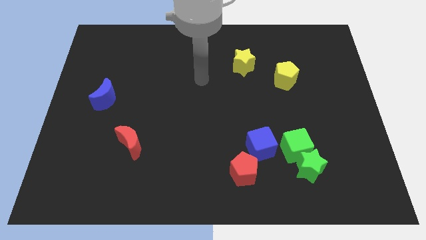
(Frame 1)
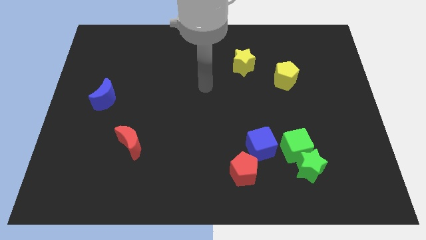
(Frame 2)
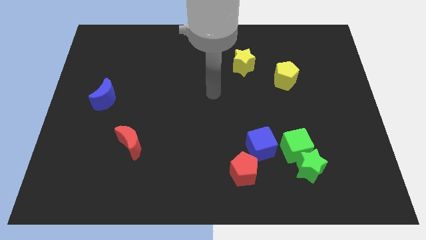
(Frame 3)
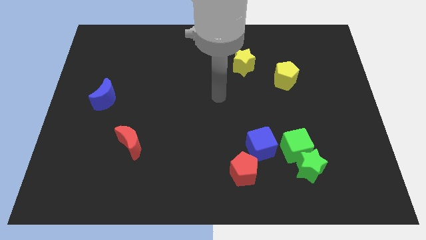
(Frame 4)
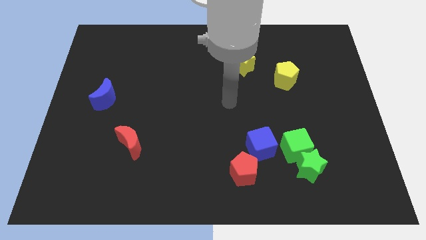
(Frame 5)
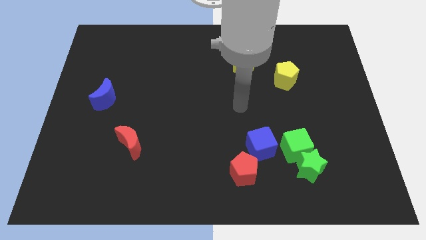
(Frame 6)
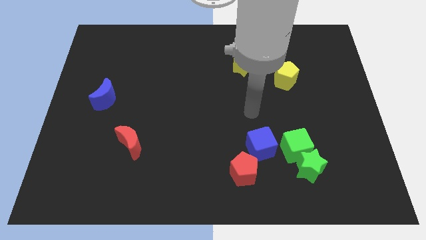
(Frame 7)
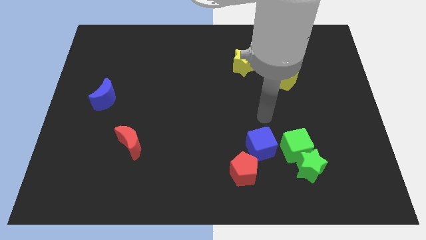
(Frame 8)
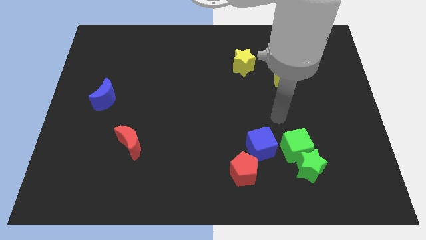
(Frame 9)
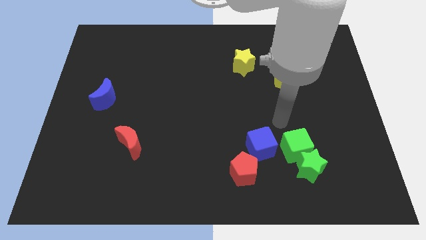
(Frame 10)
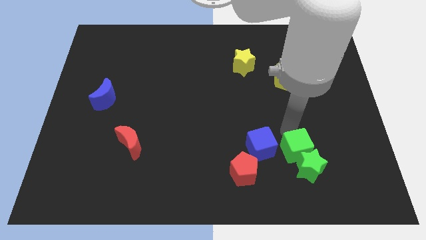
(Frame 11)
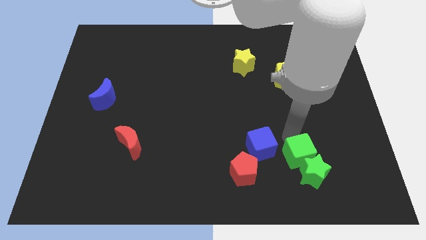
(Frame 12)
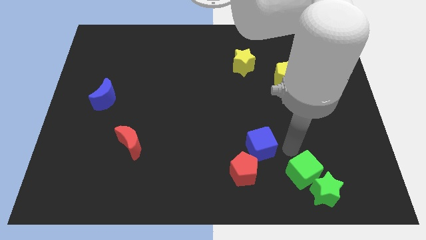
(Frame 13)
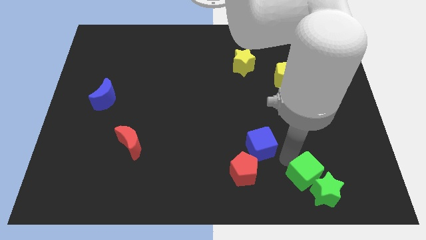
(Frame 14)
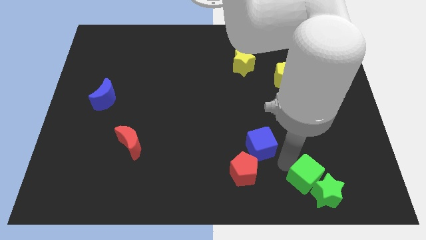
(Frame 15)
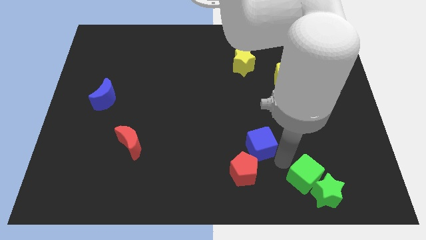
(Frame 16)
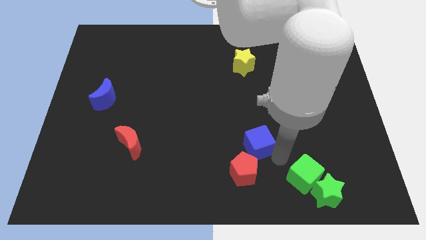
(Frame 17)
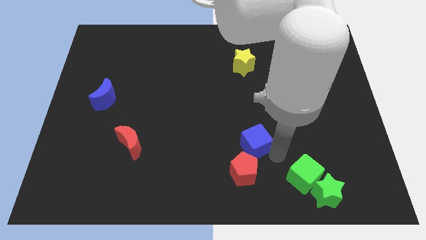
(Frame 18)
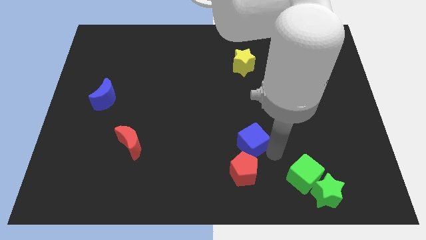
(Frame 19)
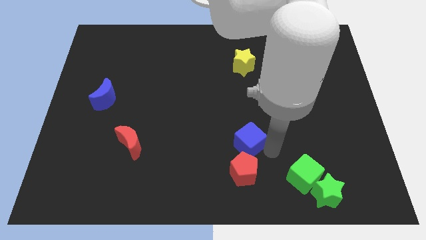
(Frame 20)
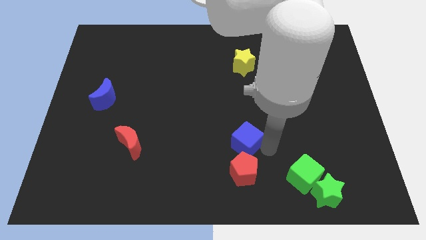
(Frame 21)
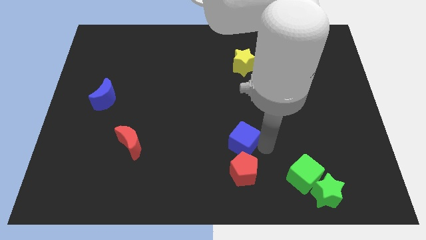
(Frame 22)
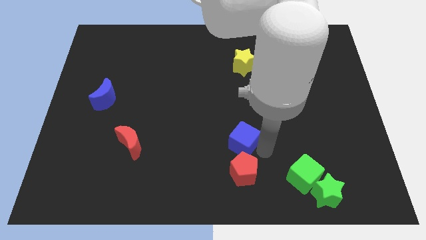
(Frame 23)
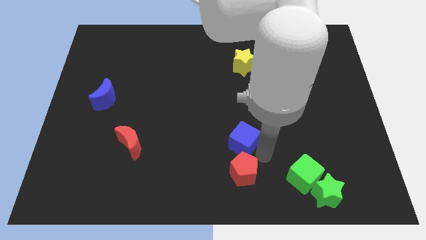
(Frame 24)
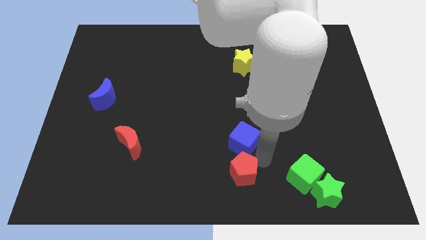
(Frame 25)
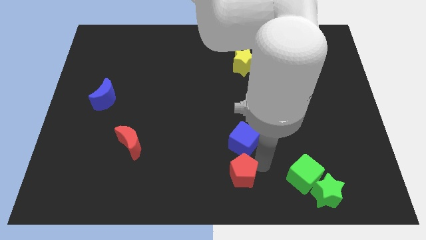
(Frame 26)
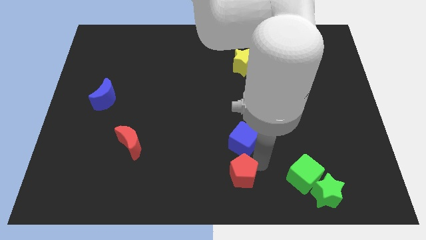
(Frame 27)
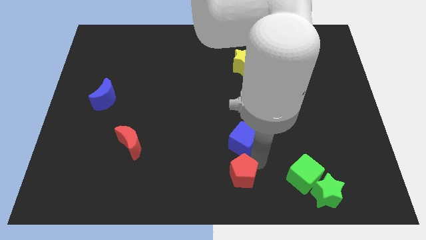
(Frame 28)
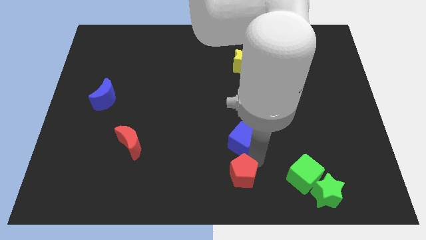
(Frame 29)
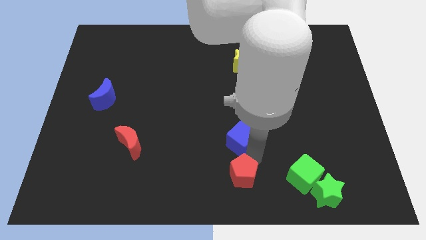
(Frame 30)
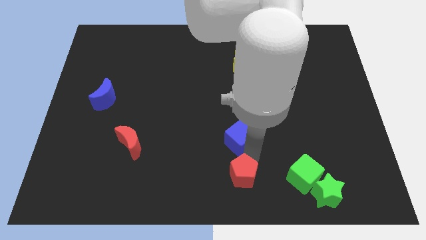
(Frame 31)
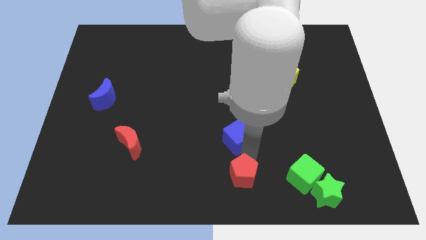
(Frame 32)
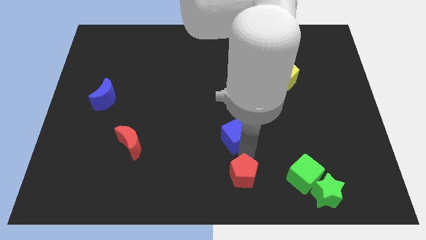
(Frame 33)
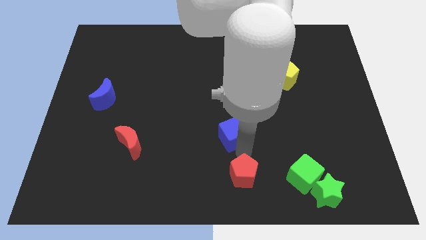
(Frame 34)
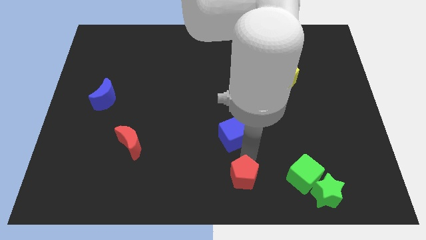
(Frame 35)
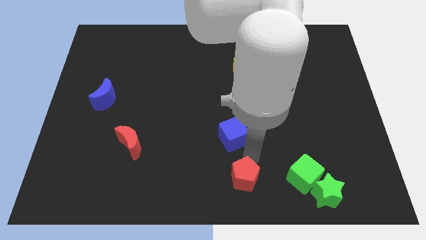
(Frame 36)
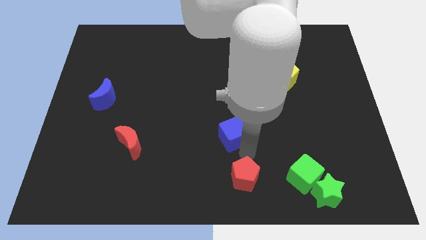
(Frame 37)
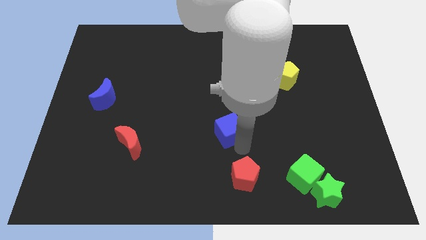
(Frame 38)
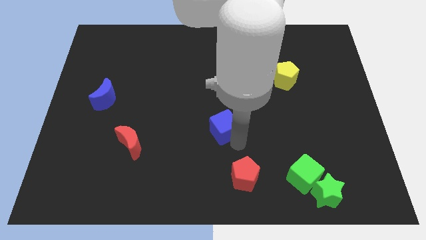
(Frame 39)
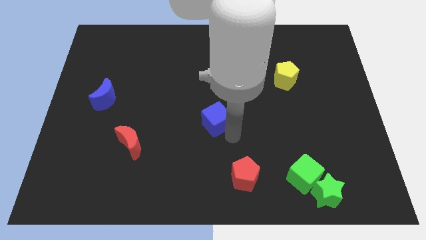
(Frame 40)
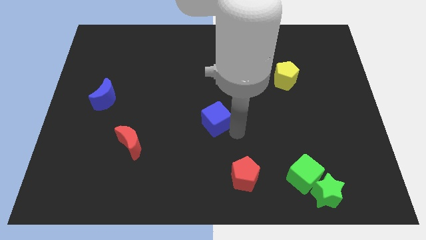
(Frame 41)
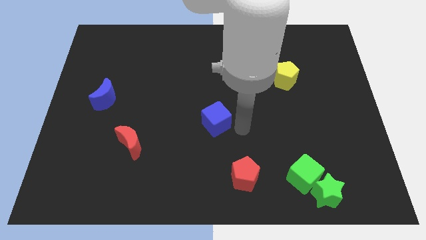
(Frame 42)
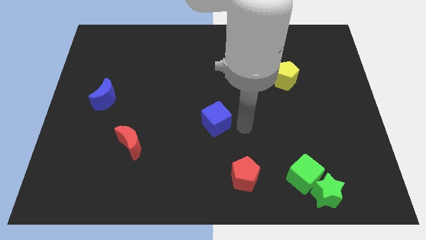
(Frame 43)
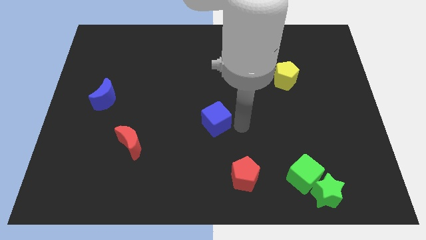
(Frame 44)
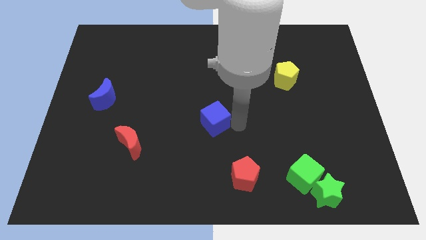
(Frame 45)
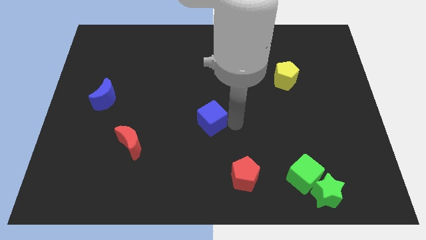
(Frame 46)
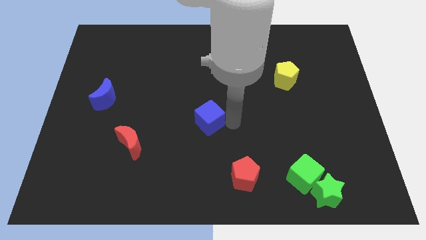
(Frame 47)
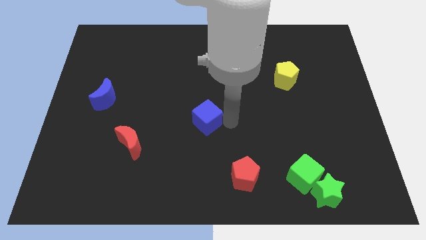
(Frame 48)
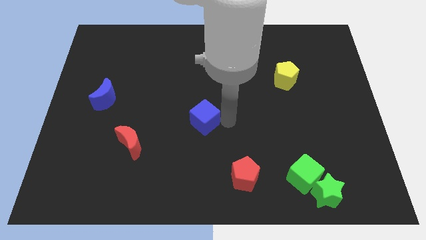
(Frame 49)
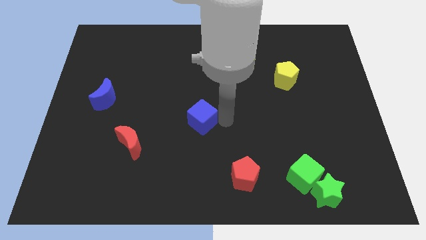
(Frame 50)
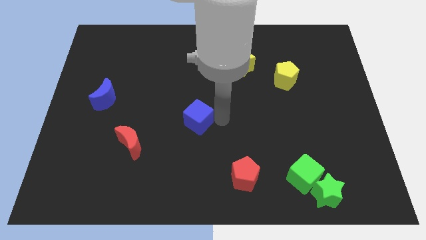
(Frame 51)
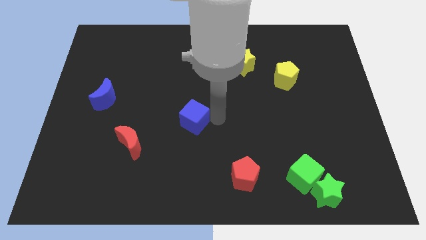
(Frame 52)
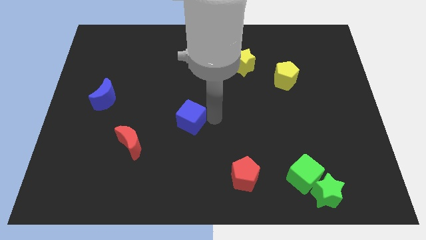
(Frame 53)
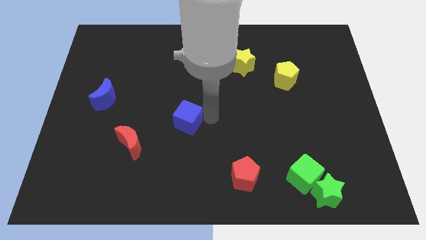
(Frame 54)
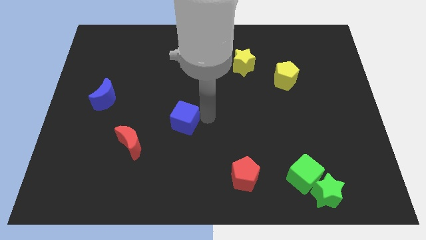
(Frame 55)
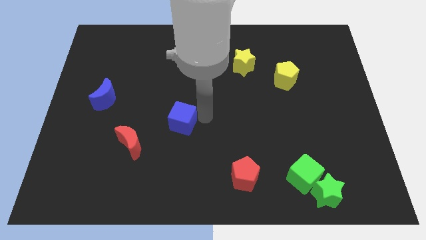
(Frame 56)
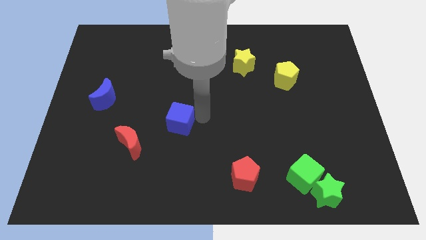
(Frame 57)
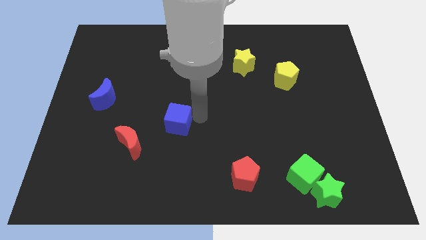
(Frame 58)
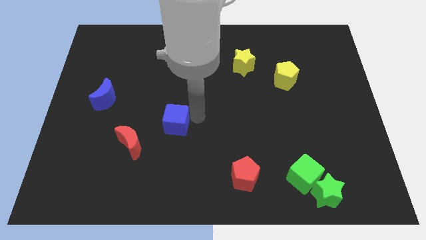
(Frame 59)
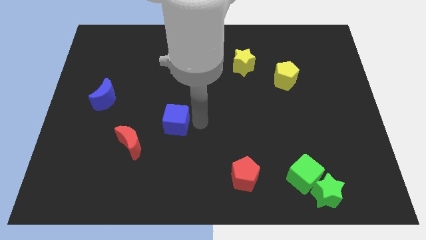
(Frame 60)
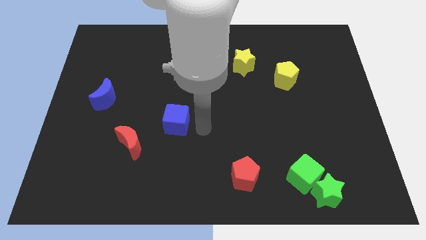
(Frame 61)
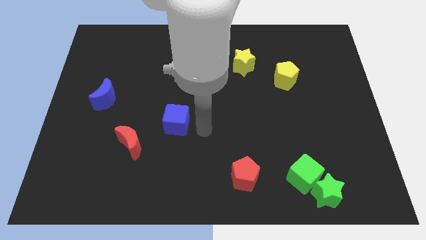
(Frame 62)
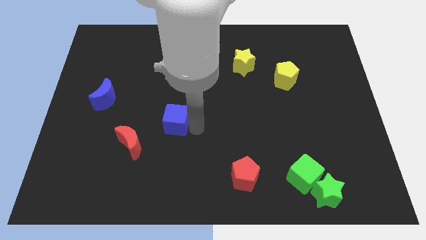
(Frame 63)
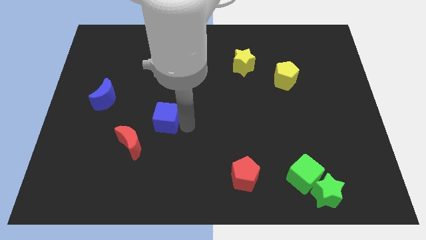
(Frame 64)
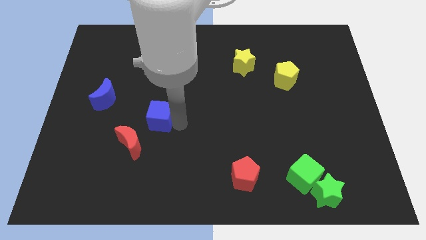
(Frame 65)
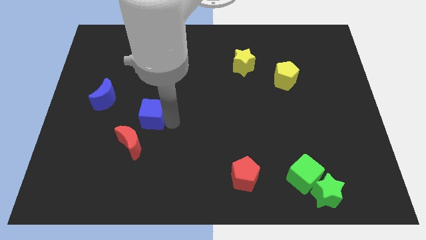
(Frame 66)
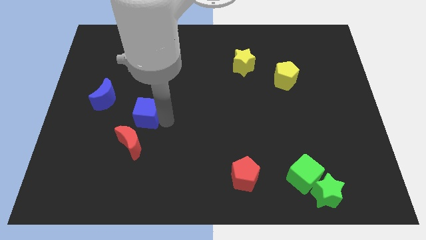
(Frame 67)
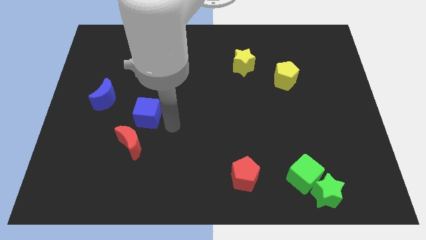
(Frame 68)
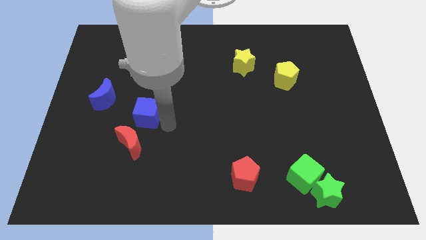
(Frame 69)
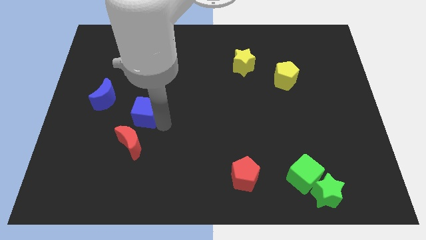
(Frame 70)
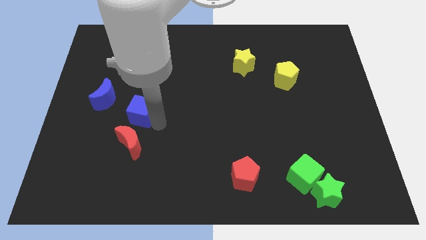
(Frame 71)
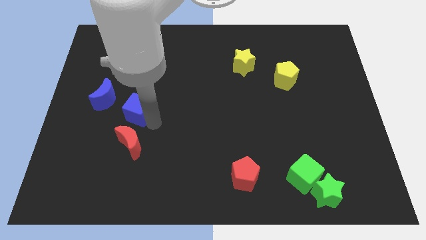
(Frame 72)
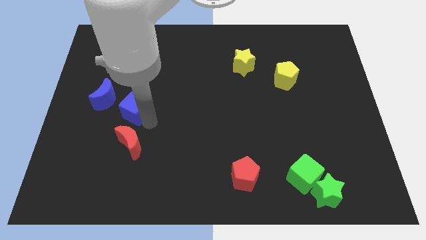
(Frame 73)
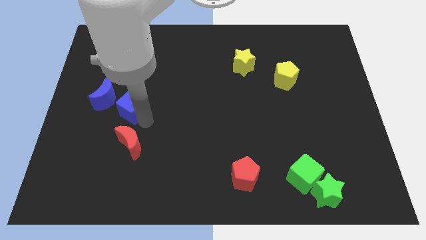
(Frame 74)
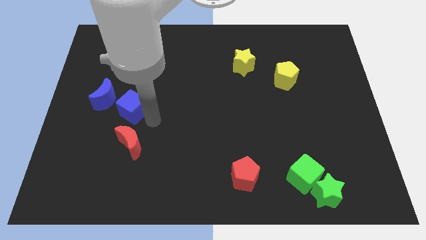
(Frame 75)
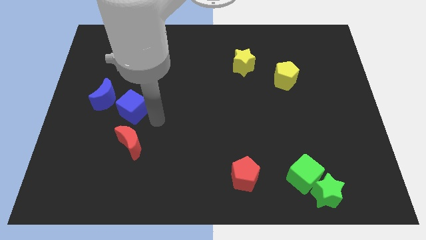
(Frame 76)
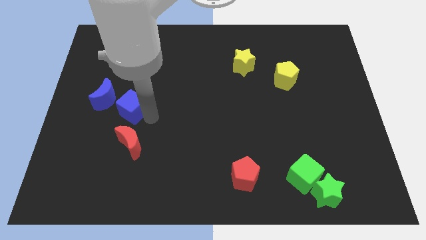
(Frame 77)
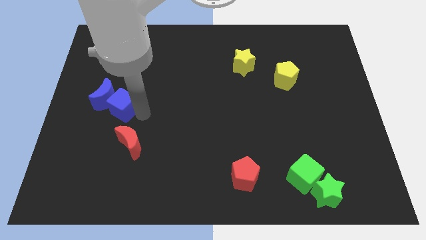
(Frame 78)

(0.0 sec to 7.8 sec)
move the blue cube next to the blue moon

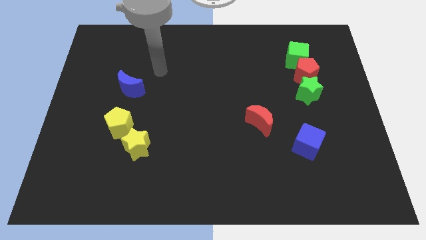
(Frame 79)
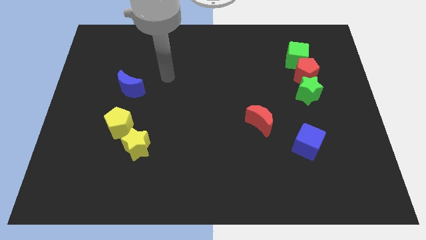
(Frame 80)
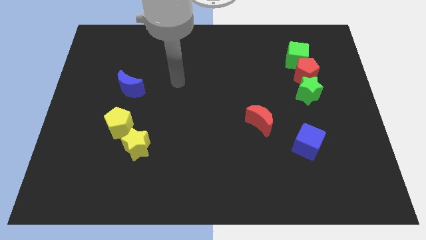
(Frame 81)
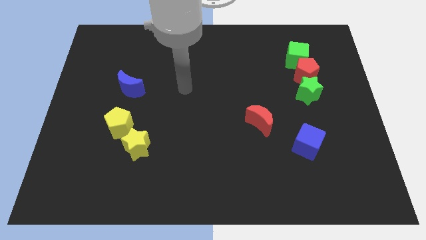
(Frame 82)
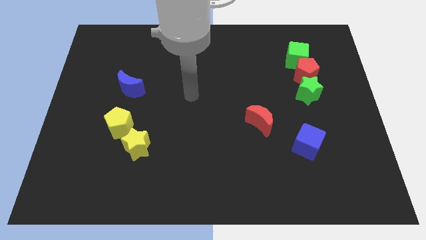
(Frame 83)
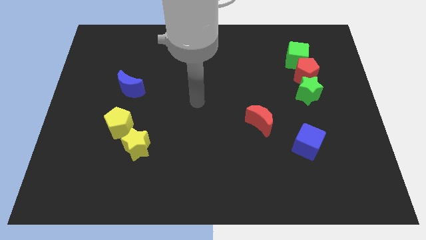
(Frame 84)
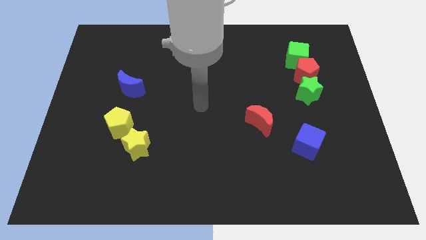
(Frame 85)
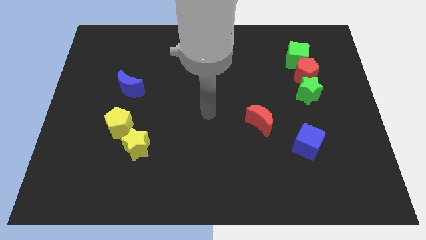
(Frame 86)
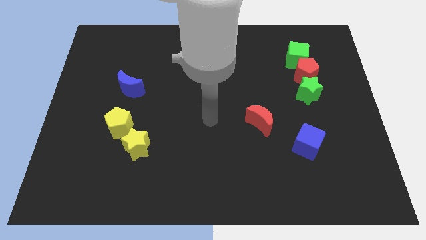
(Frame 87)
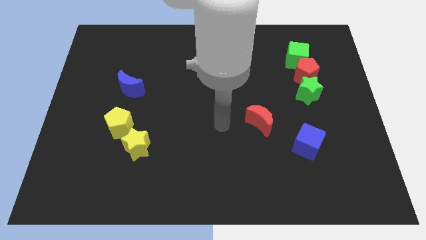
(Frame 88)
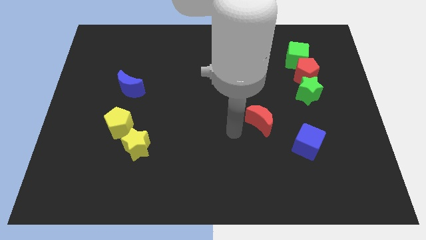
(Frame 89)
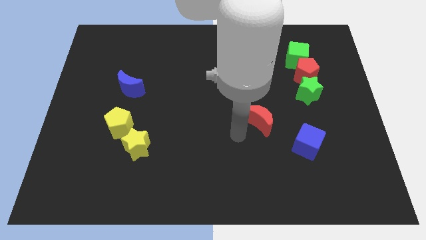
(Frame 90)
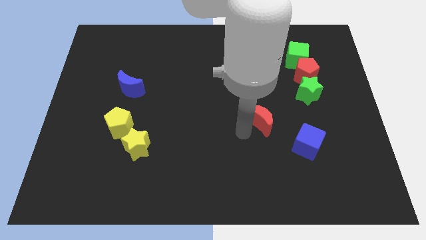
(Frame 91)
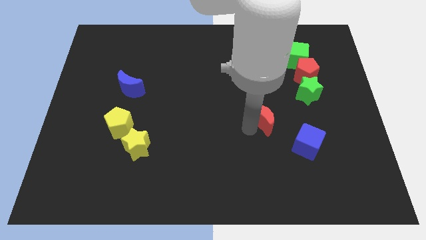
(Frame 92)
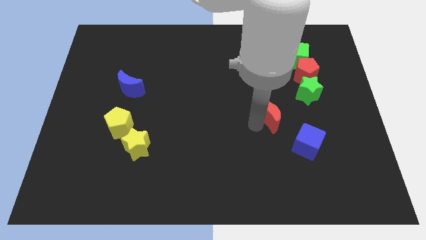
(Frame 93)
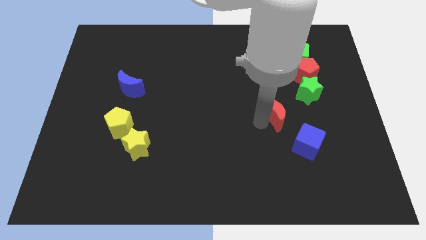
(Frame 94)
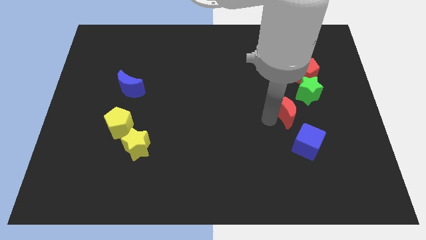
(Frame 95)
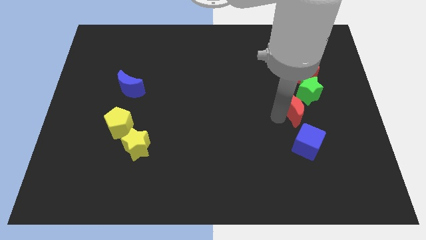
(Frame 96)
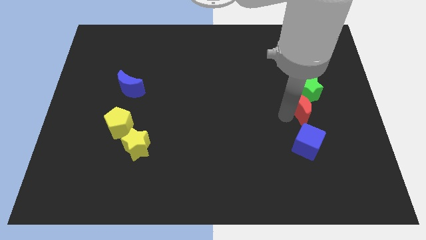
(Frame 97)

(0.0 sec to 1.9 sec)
put the red moon towards the green star
